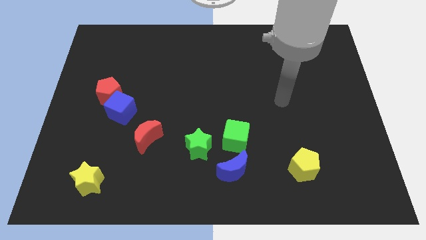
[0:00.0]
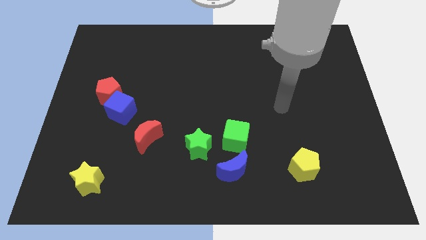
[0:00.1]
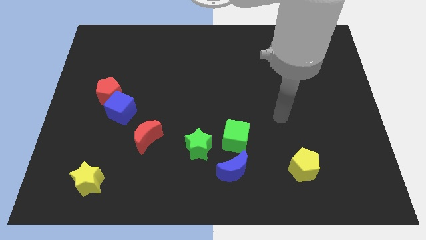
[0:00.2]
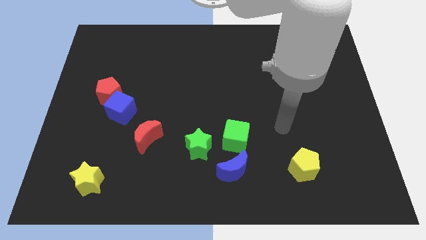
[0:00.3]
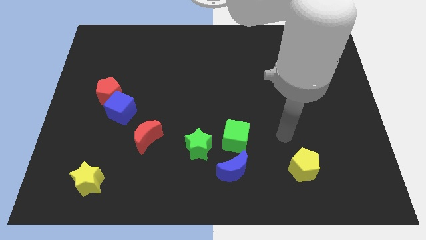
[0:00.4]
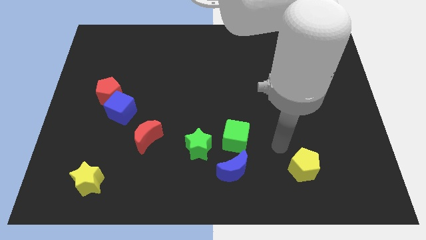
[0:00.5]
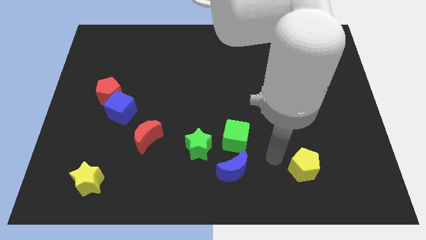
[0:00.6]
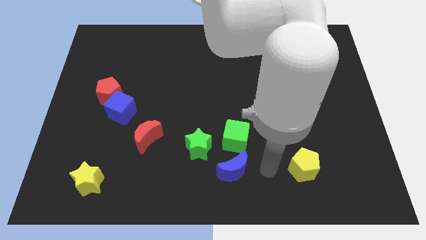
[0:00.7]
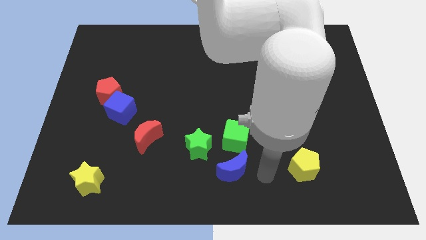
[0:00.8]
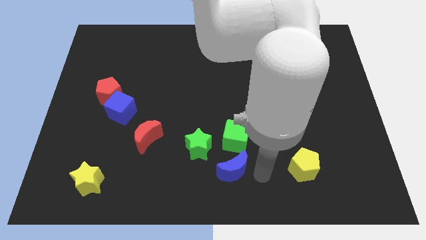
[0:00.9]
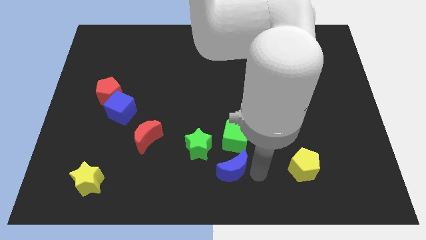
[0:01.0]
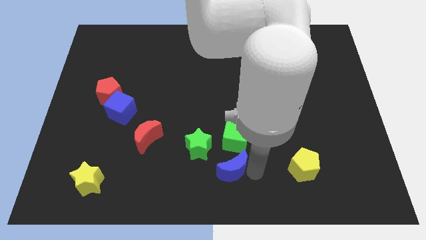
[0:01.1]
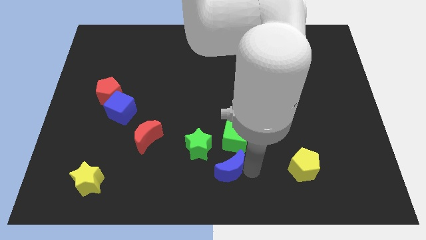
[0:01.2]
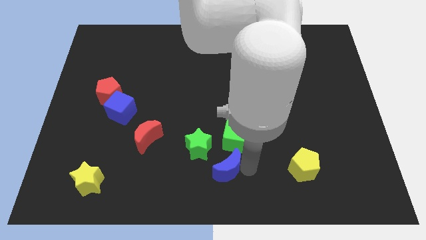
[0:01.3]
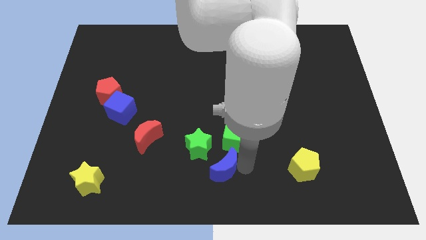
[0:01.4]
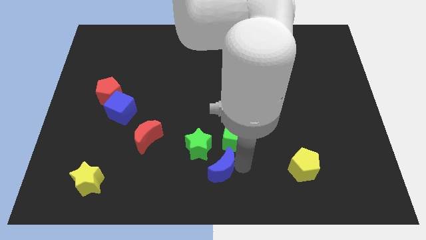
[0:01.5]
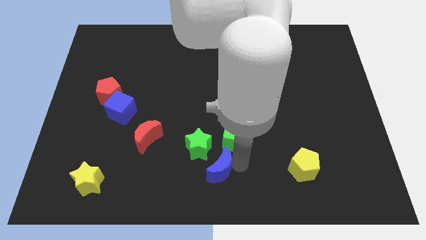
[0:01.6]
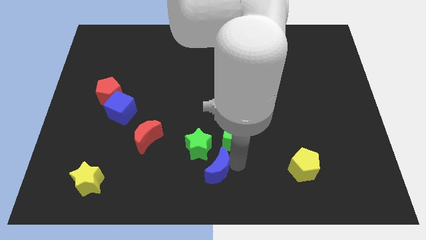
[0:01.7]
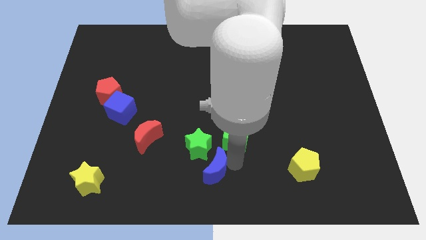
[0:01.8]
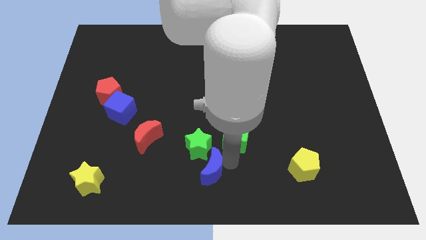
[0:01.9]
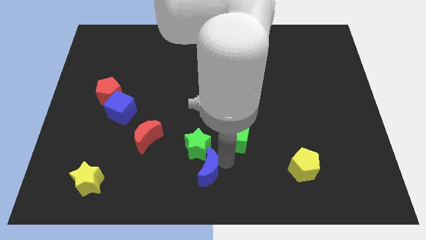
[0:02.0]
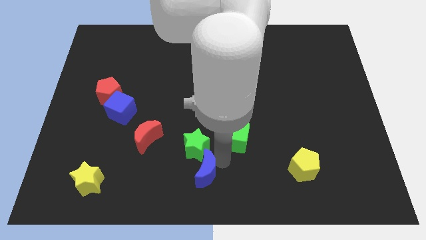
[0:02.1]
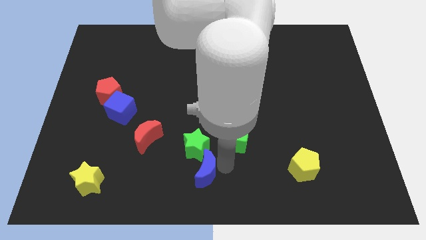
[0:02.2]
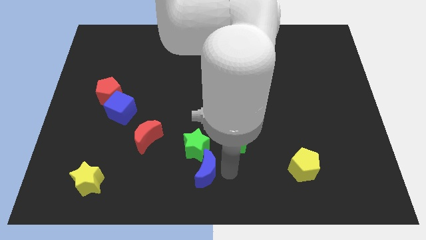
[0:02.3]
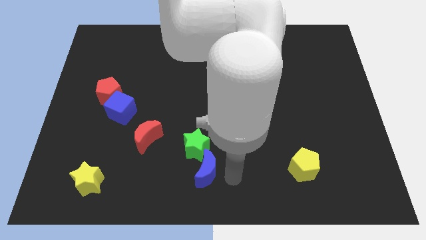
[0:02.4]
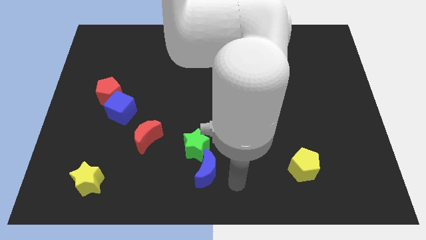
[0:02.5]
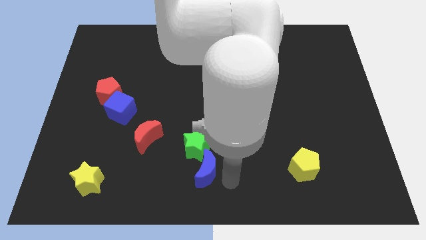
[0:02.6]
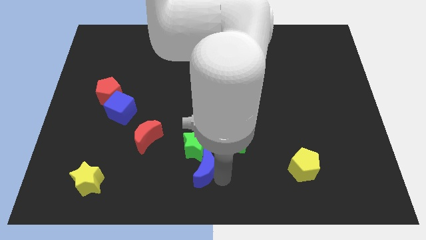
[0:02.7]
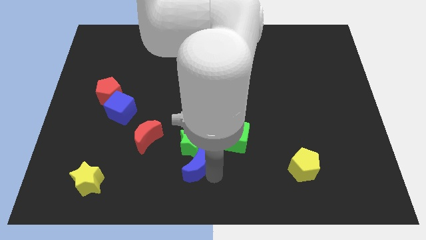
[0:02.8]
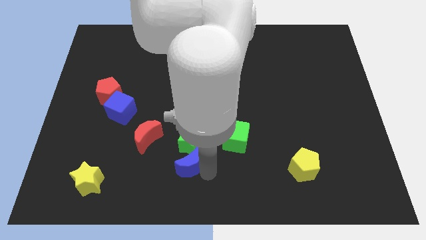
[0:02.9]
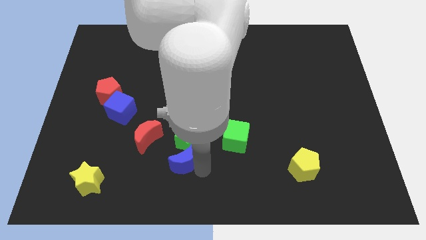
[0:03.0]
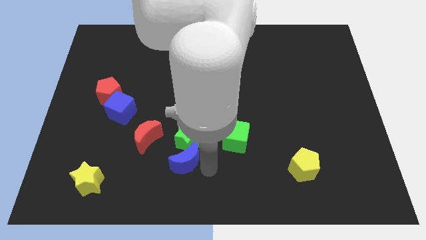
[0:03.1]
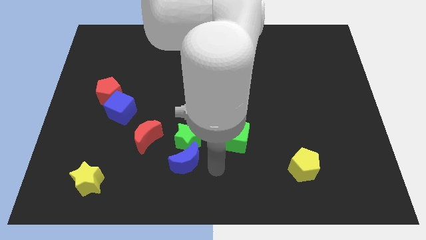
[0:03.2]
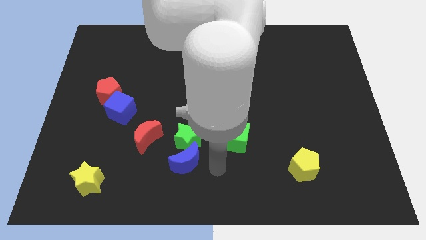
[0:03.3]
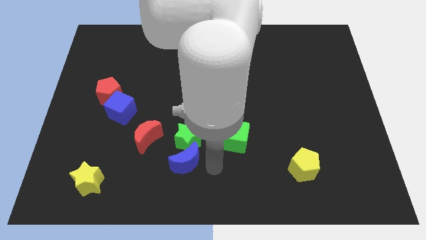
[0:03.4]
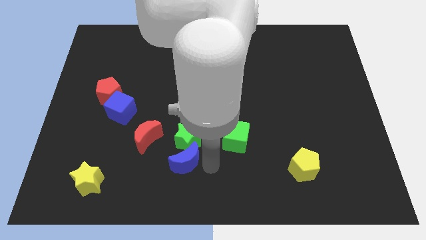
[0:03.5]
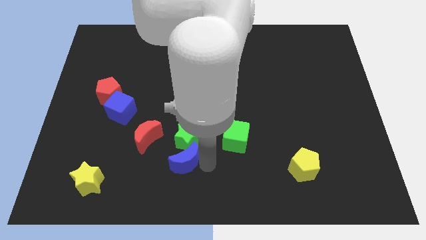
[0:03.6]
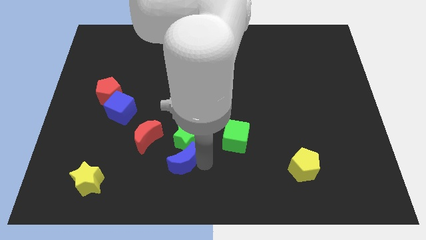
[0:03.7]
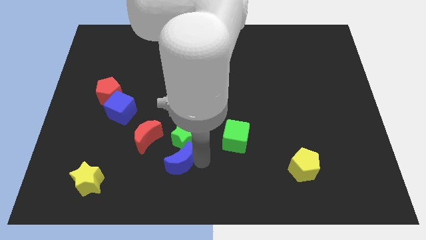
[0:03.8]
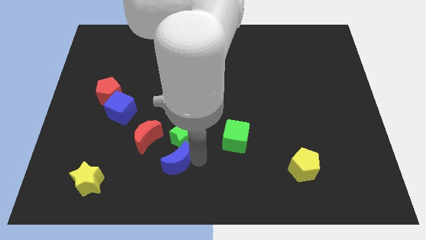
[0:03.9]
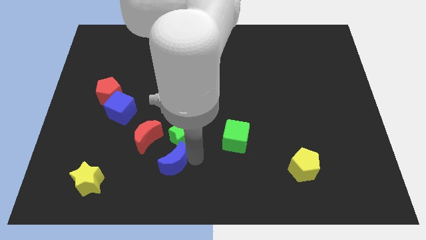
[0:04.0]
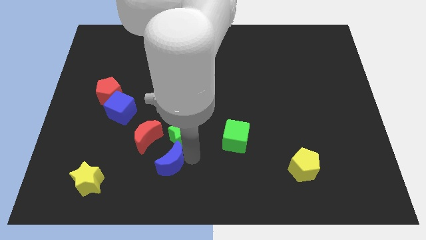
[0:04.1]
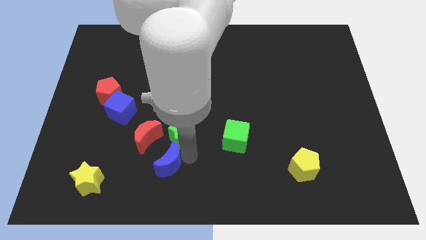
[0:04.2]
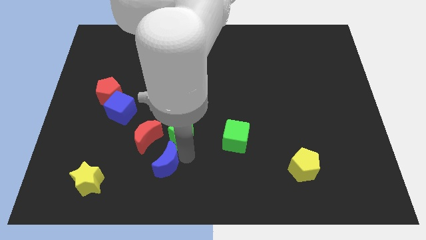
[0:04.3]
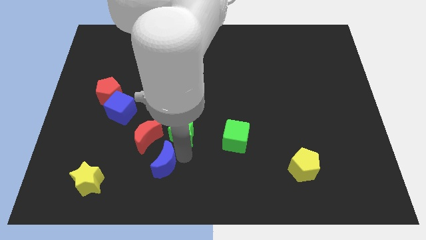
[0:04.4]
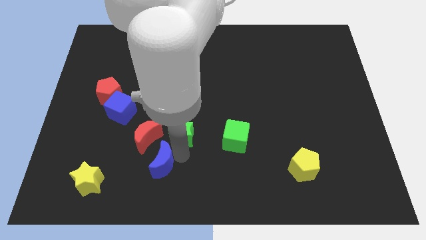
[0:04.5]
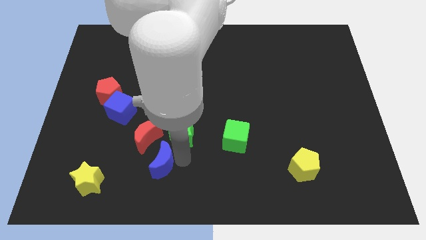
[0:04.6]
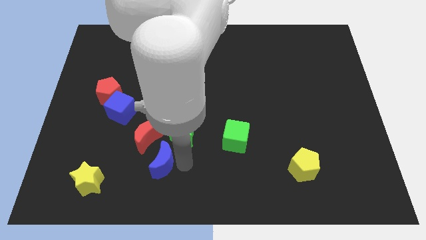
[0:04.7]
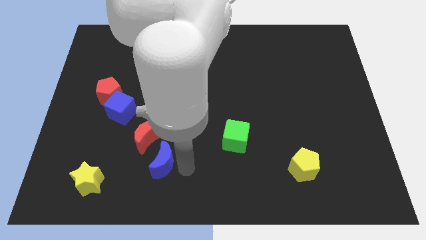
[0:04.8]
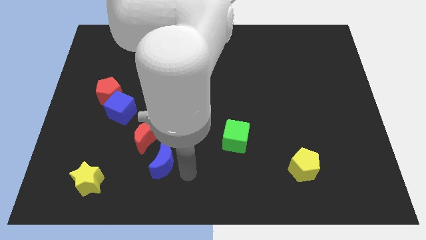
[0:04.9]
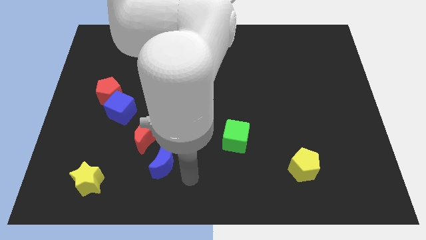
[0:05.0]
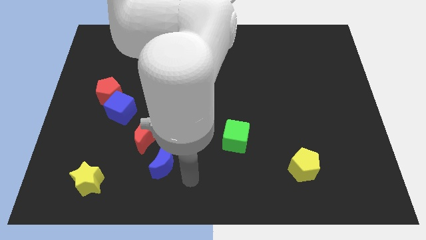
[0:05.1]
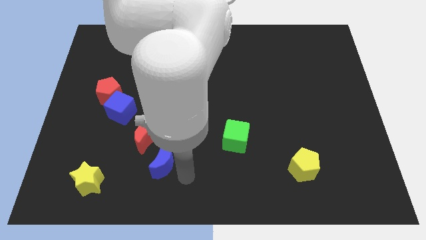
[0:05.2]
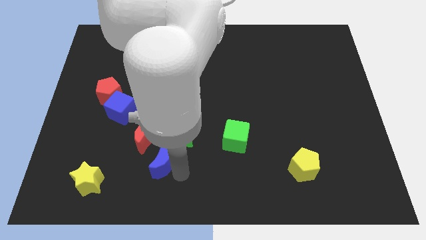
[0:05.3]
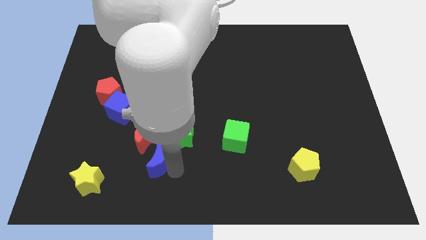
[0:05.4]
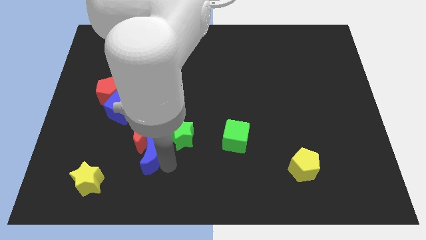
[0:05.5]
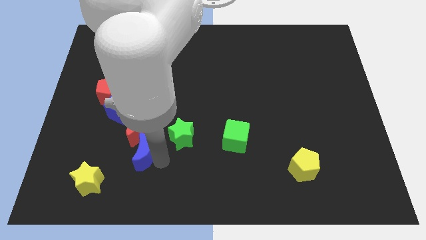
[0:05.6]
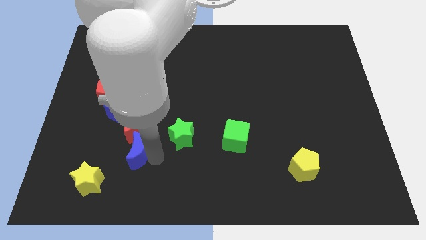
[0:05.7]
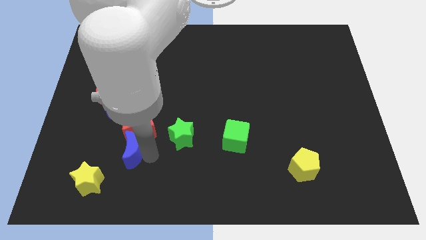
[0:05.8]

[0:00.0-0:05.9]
push the blue moon to the left

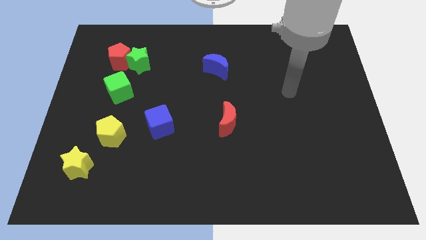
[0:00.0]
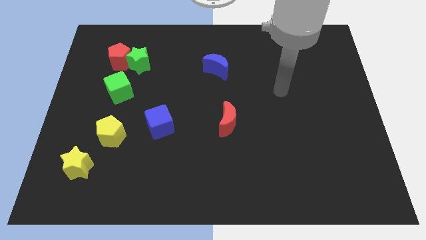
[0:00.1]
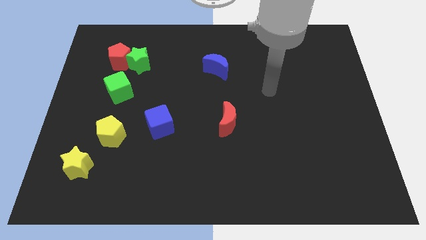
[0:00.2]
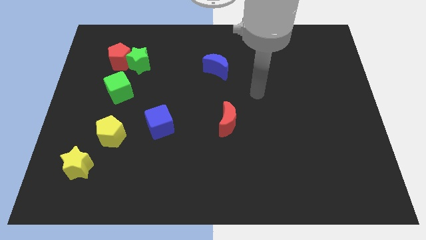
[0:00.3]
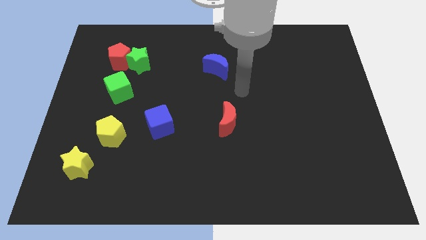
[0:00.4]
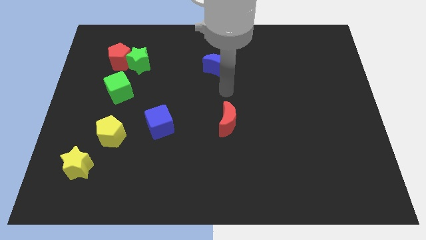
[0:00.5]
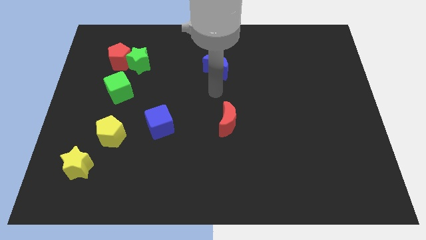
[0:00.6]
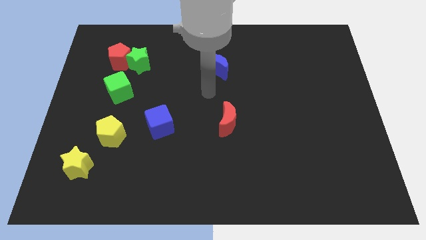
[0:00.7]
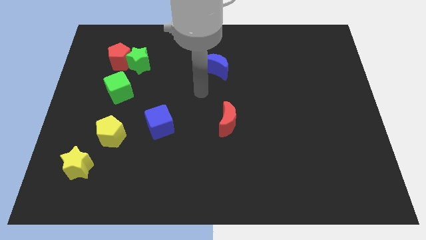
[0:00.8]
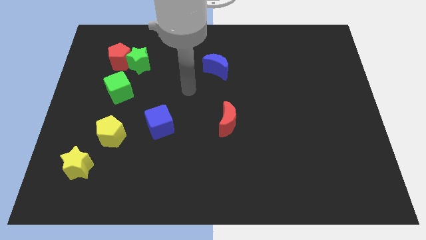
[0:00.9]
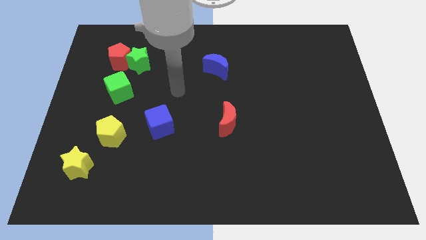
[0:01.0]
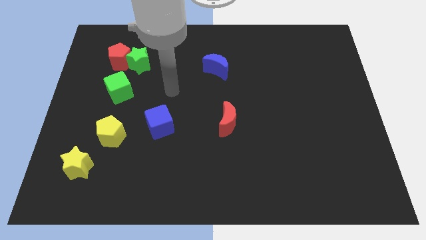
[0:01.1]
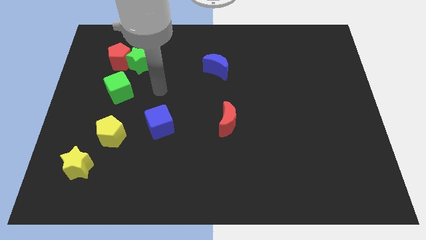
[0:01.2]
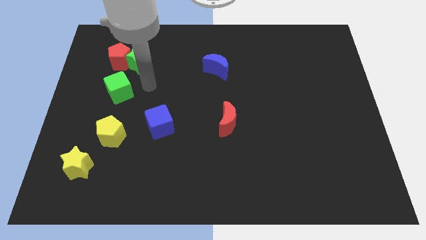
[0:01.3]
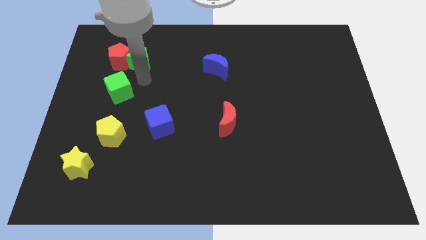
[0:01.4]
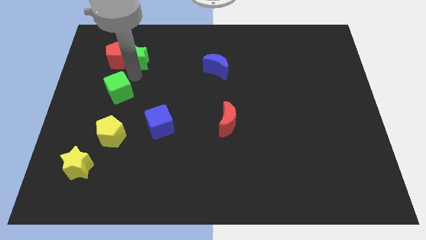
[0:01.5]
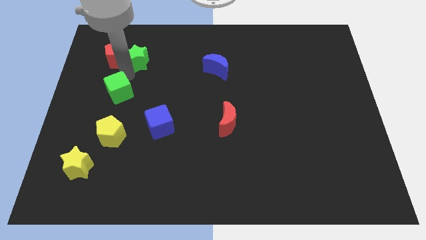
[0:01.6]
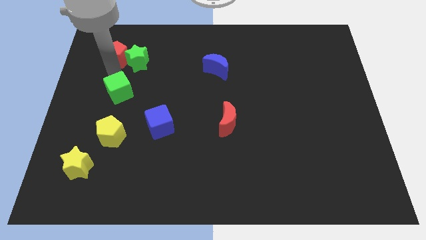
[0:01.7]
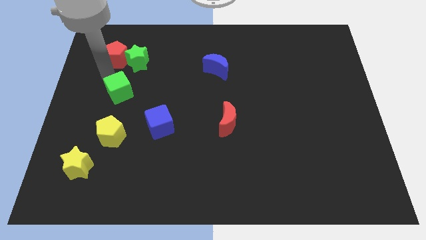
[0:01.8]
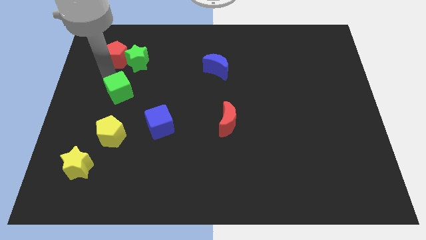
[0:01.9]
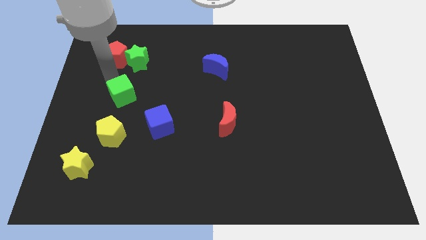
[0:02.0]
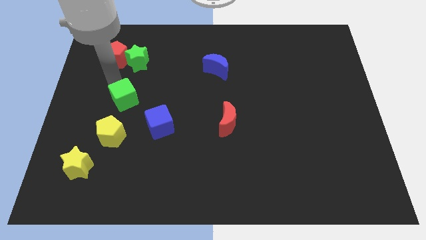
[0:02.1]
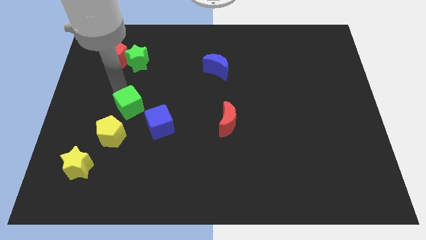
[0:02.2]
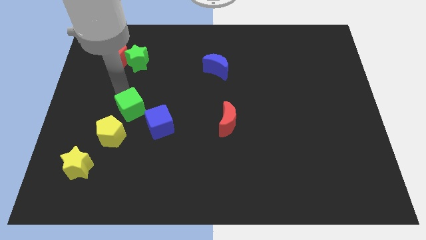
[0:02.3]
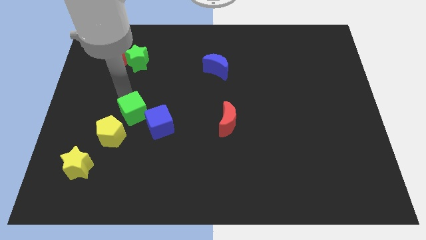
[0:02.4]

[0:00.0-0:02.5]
move the green cube a little downwards and right diagonally
